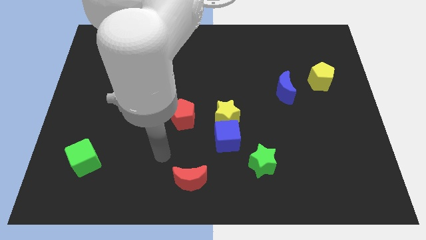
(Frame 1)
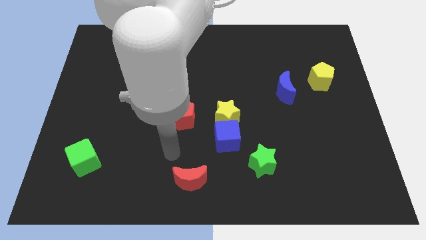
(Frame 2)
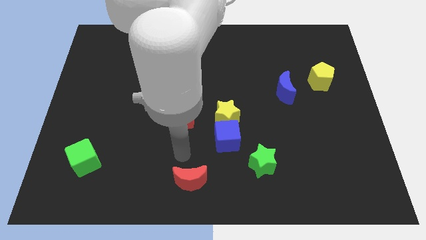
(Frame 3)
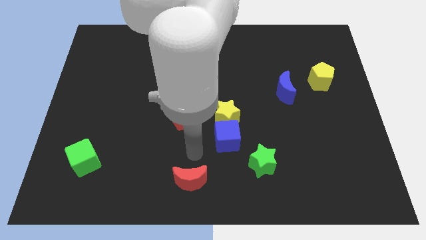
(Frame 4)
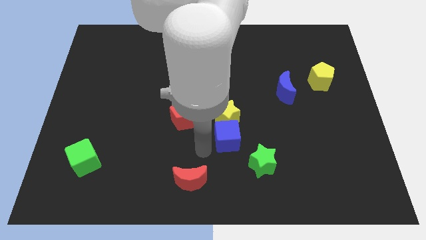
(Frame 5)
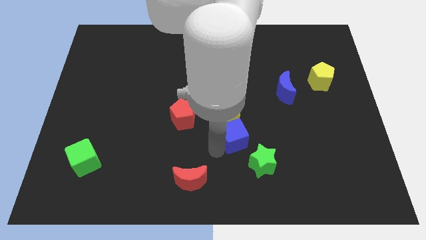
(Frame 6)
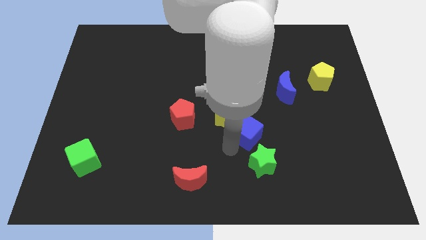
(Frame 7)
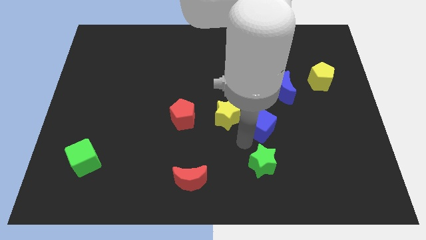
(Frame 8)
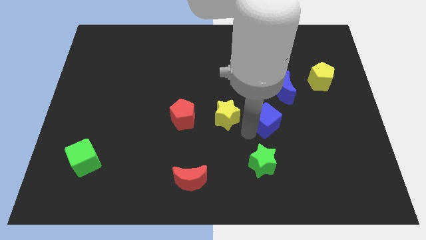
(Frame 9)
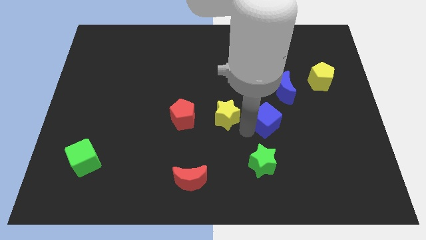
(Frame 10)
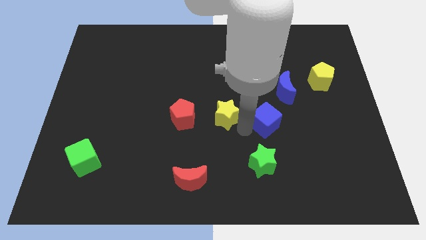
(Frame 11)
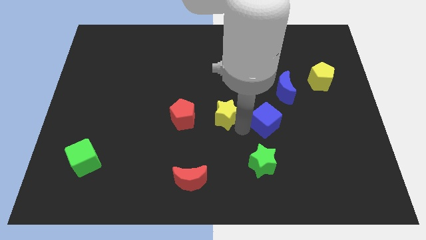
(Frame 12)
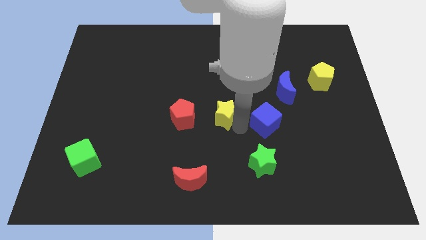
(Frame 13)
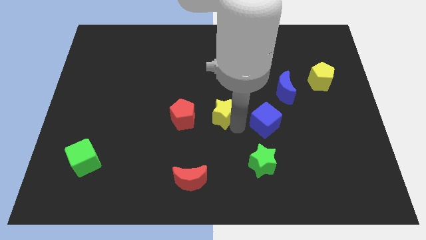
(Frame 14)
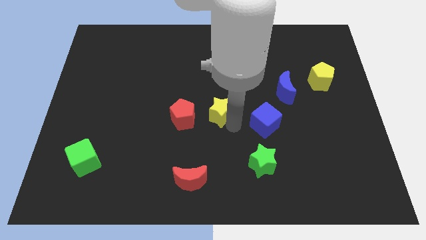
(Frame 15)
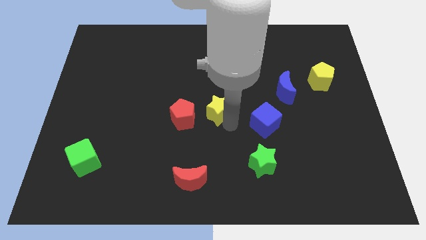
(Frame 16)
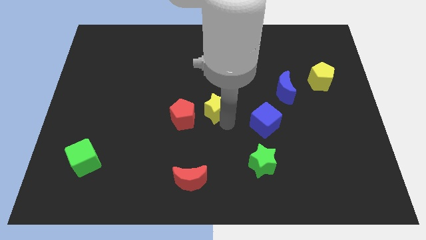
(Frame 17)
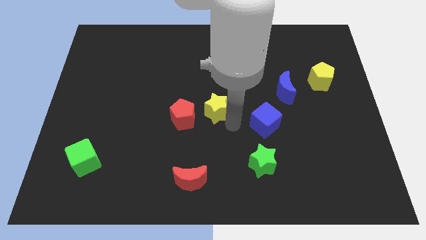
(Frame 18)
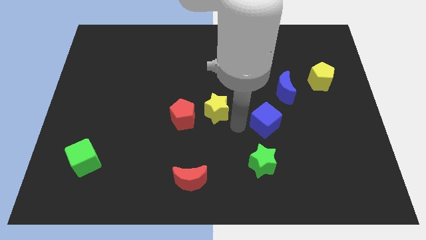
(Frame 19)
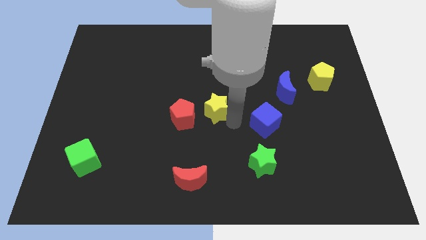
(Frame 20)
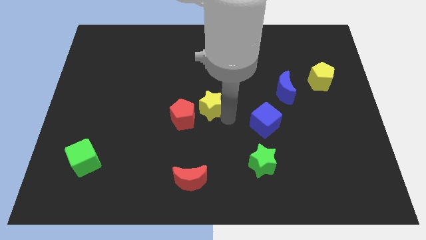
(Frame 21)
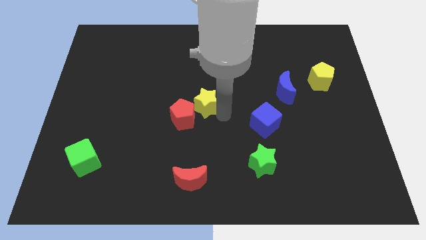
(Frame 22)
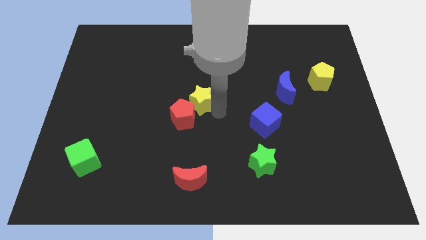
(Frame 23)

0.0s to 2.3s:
move the yellow star upwards and left a little bit

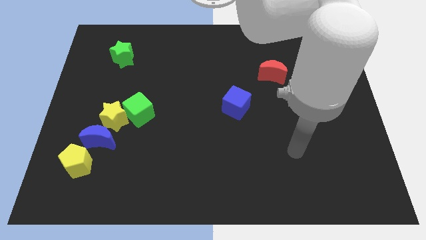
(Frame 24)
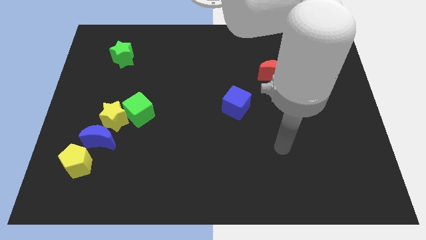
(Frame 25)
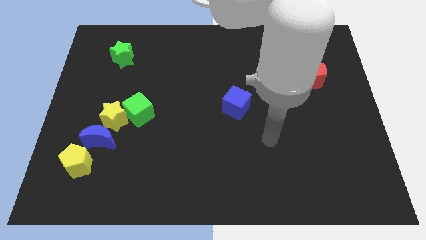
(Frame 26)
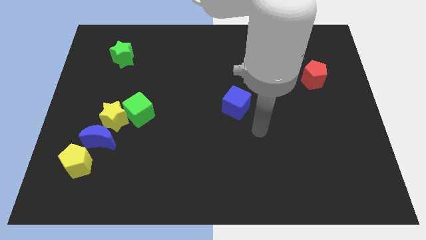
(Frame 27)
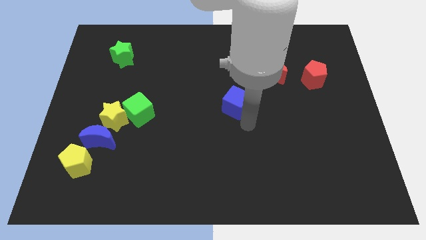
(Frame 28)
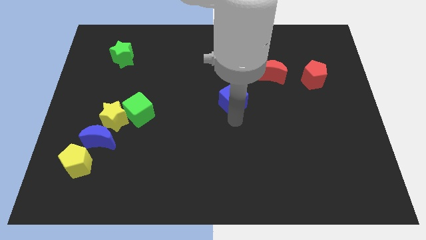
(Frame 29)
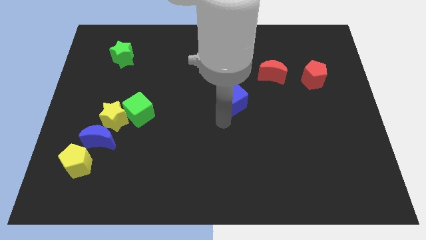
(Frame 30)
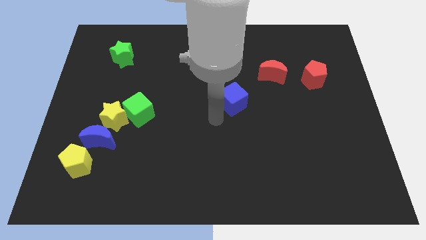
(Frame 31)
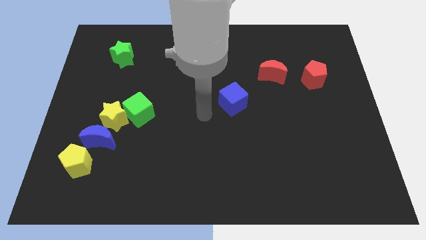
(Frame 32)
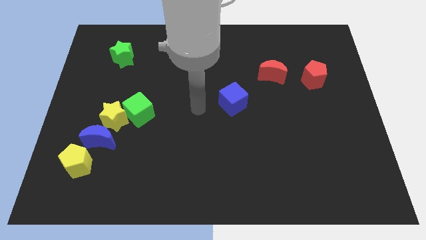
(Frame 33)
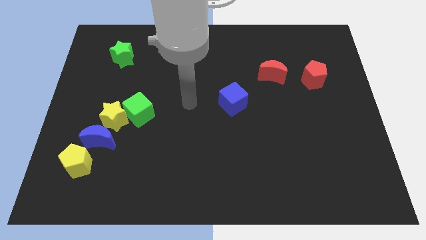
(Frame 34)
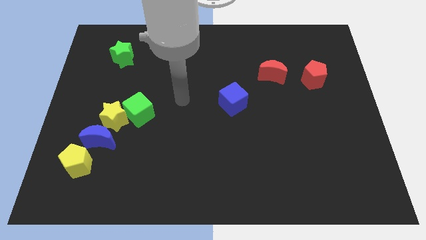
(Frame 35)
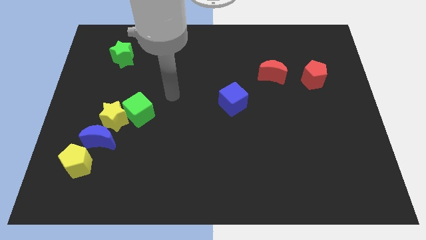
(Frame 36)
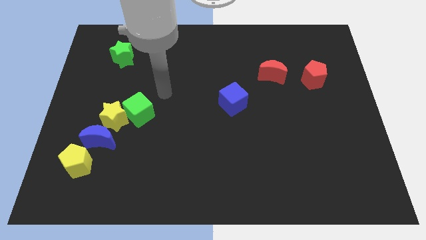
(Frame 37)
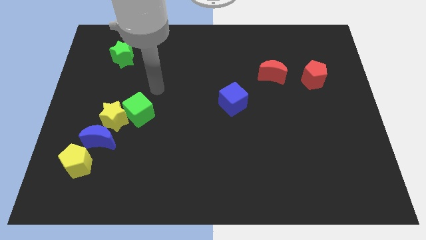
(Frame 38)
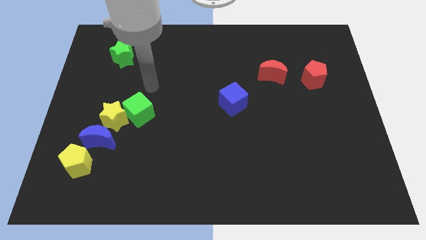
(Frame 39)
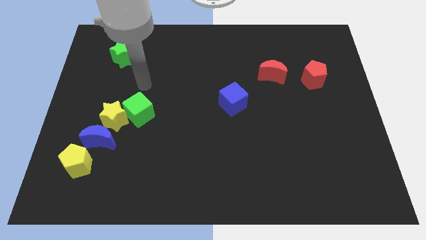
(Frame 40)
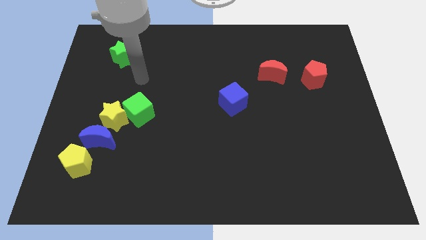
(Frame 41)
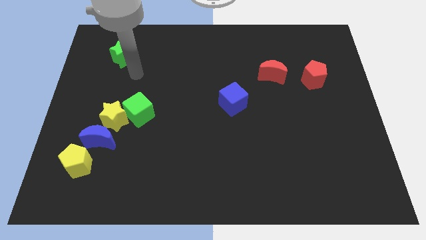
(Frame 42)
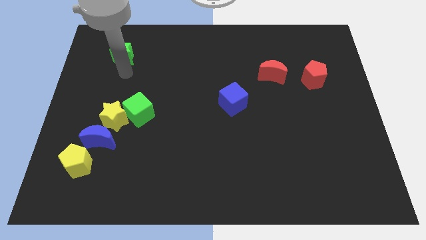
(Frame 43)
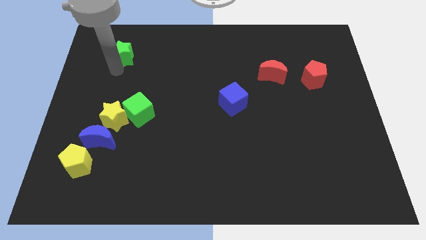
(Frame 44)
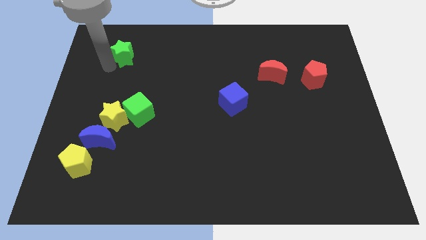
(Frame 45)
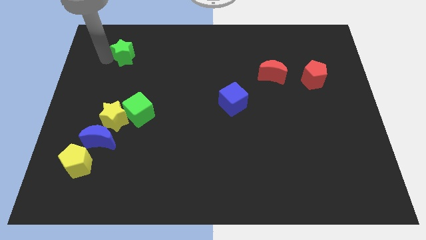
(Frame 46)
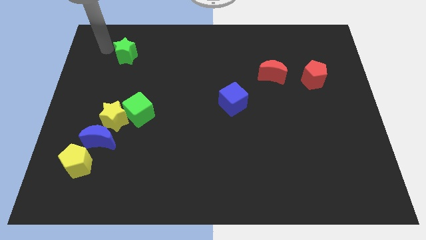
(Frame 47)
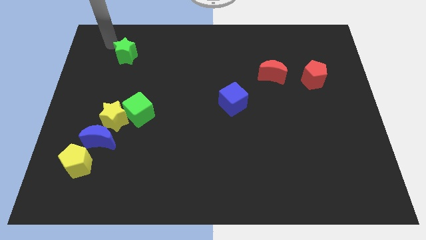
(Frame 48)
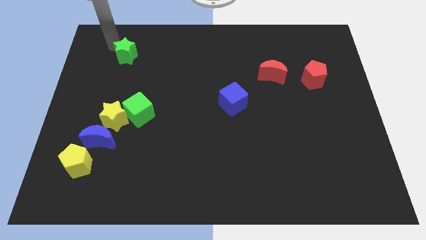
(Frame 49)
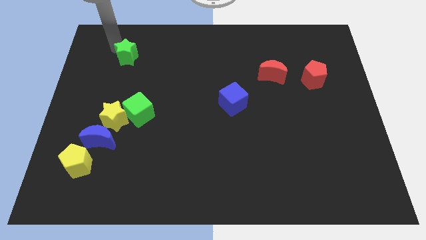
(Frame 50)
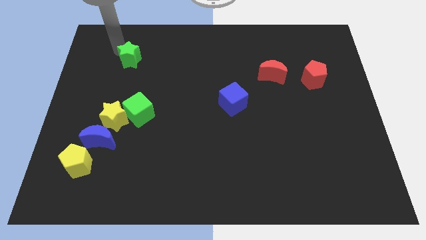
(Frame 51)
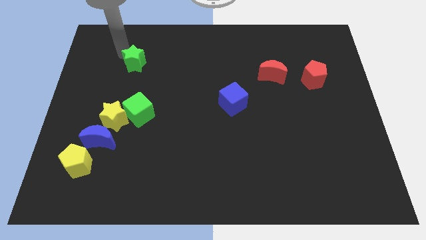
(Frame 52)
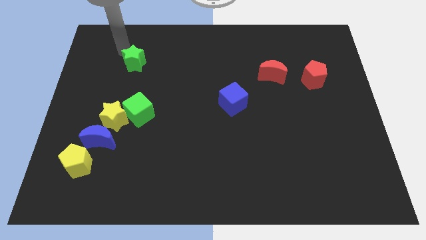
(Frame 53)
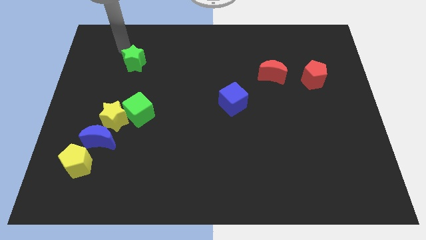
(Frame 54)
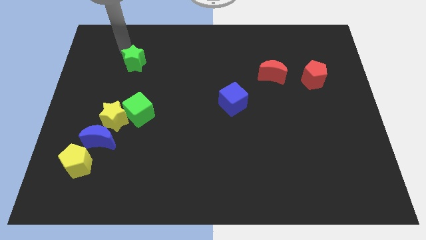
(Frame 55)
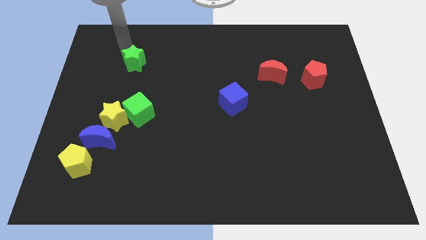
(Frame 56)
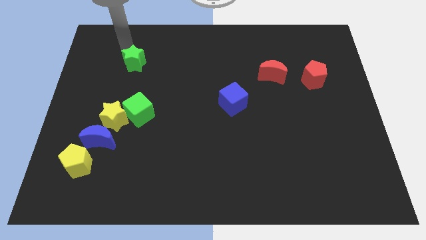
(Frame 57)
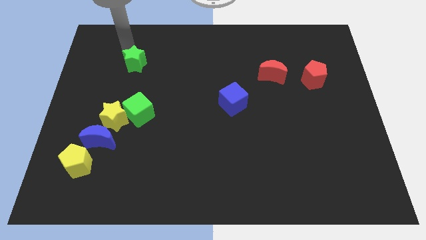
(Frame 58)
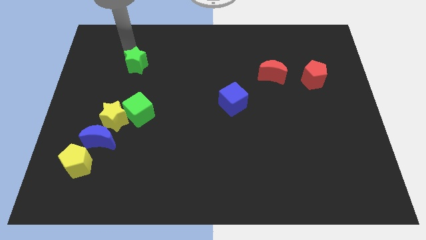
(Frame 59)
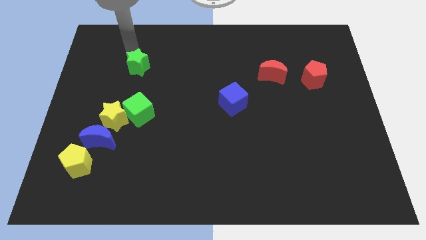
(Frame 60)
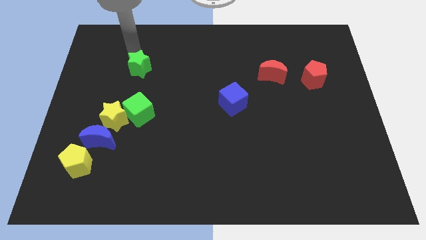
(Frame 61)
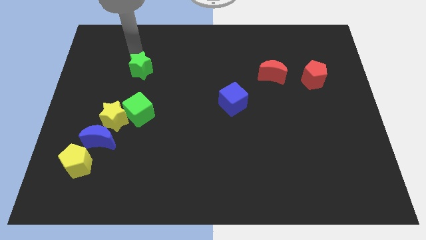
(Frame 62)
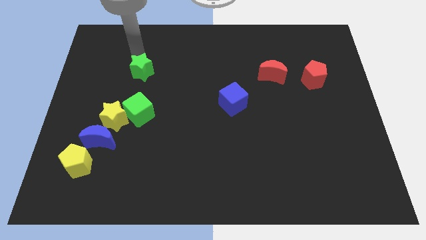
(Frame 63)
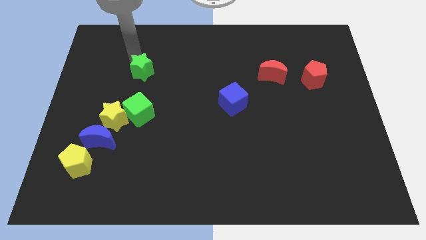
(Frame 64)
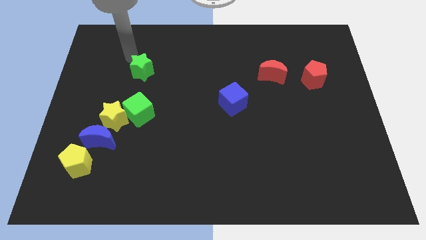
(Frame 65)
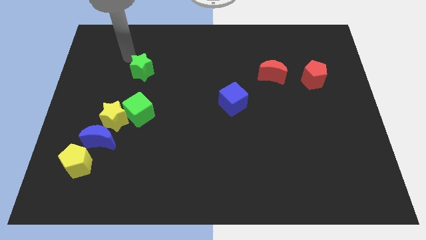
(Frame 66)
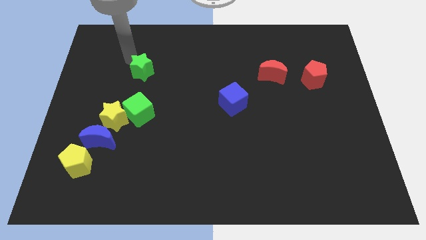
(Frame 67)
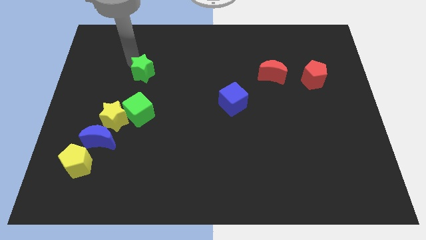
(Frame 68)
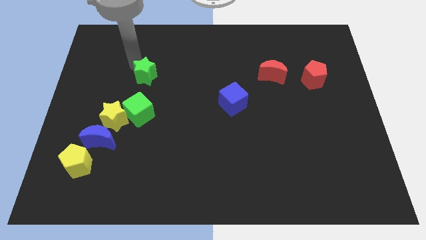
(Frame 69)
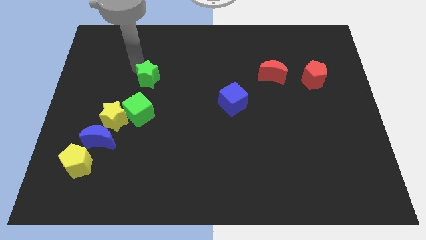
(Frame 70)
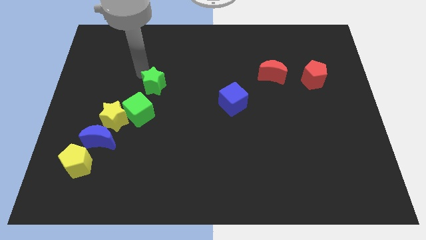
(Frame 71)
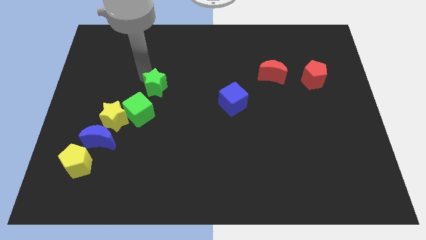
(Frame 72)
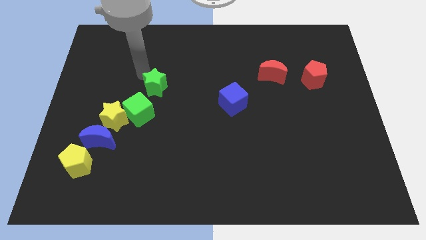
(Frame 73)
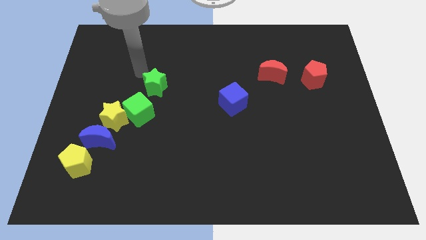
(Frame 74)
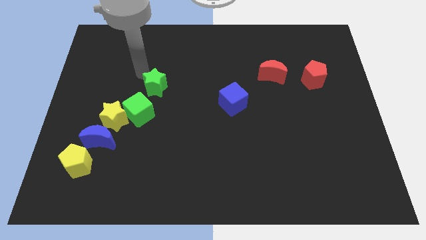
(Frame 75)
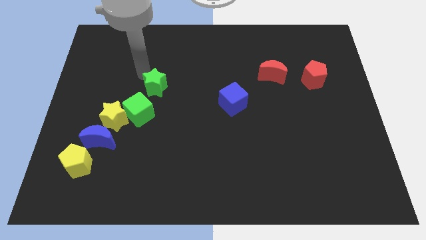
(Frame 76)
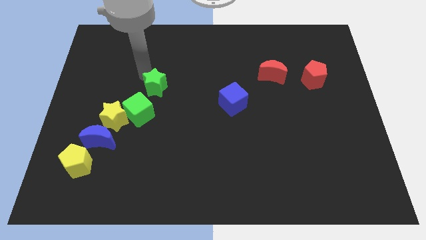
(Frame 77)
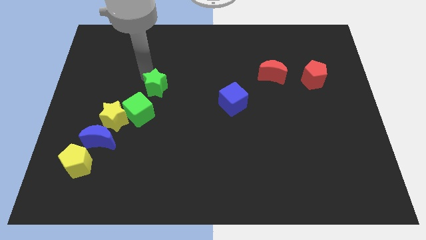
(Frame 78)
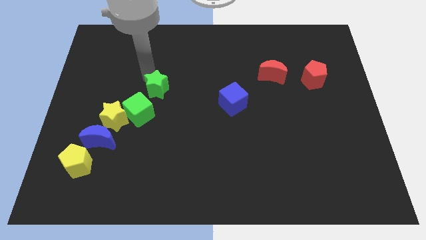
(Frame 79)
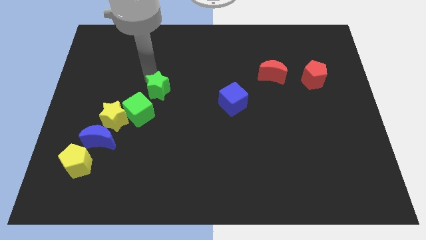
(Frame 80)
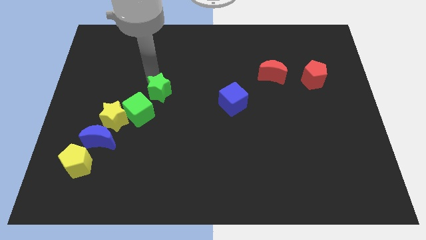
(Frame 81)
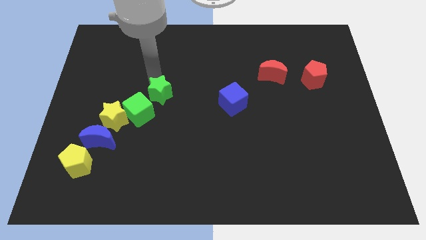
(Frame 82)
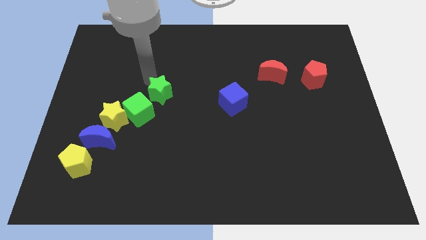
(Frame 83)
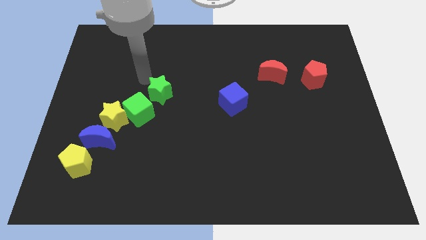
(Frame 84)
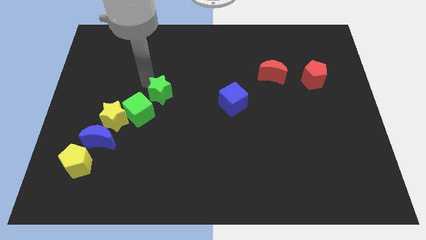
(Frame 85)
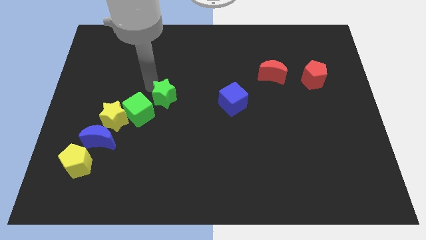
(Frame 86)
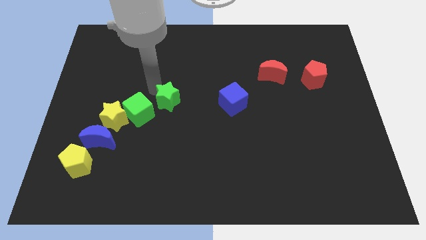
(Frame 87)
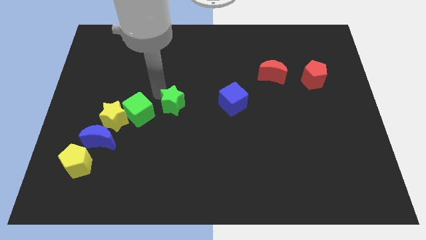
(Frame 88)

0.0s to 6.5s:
move the green star downwards and to the right
